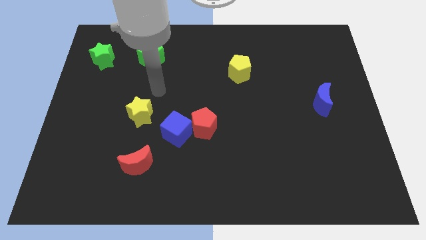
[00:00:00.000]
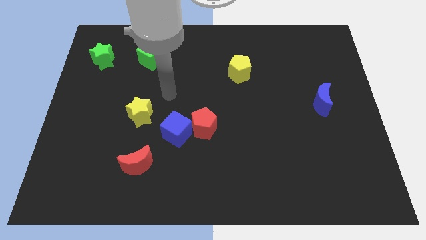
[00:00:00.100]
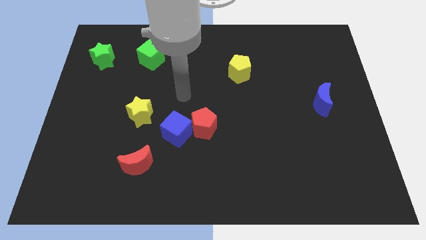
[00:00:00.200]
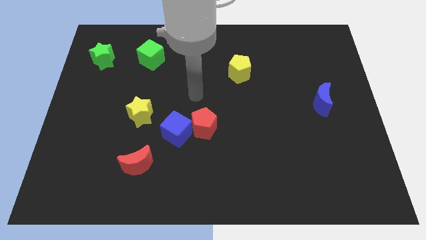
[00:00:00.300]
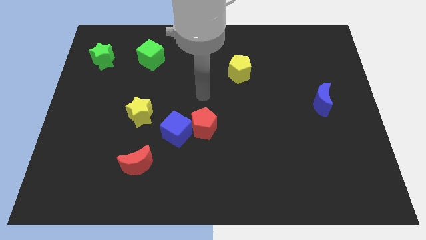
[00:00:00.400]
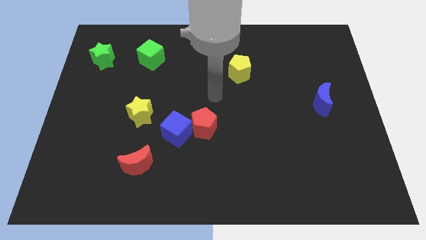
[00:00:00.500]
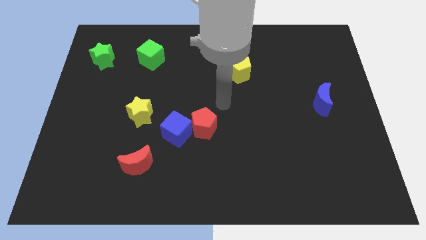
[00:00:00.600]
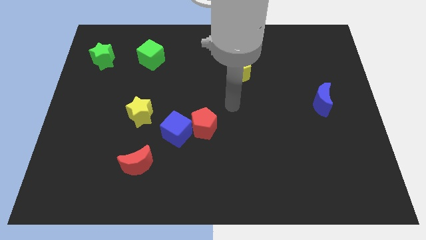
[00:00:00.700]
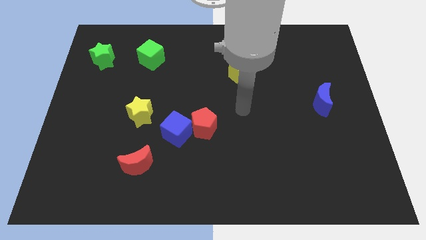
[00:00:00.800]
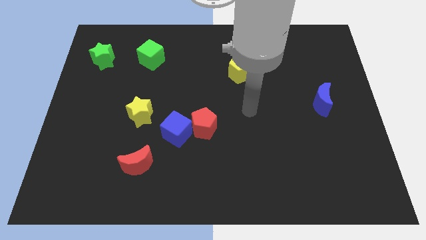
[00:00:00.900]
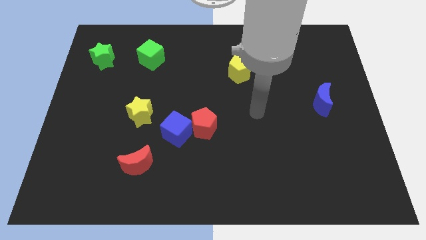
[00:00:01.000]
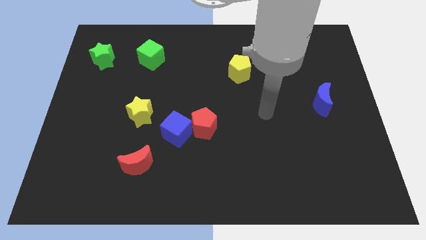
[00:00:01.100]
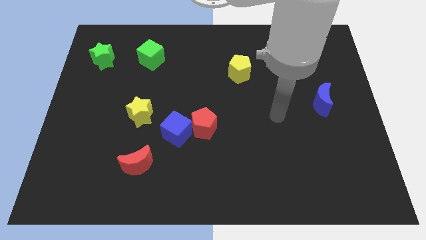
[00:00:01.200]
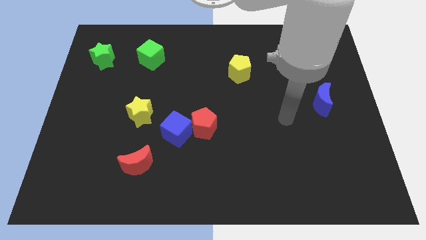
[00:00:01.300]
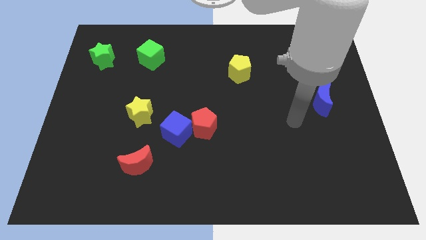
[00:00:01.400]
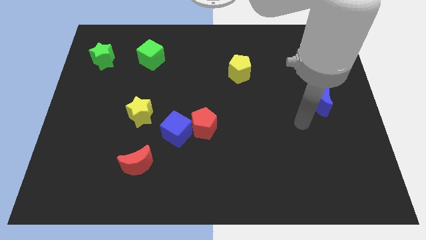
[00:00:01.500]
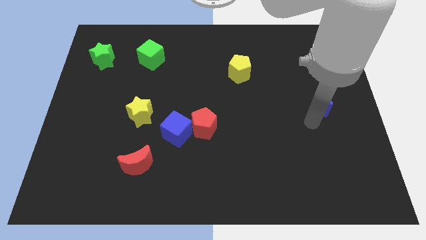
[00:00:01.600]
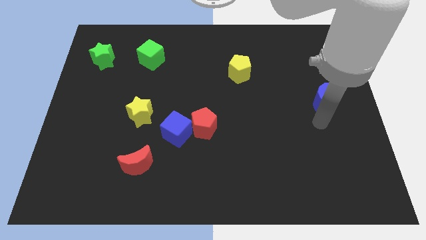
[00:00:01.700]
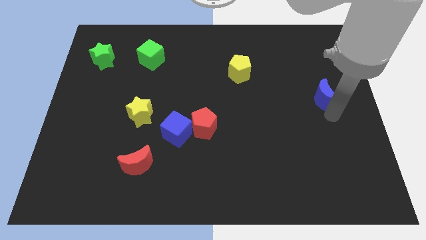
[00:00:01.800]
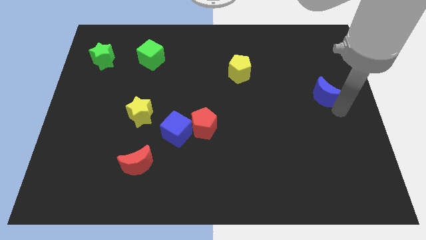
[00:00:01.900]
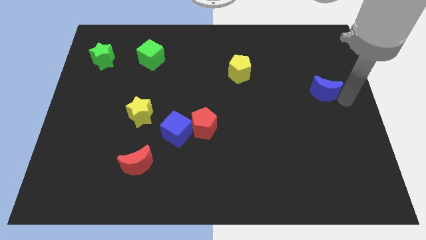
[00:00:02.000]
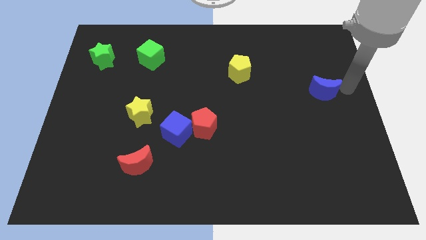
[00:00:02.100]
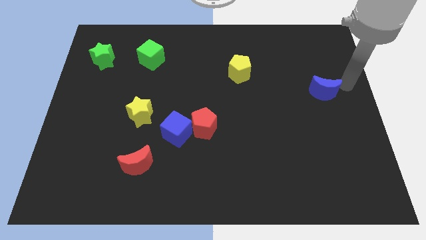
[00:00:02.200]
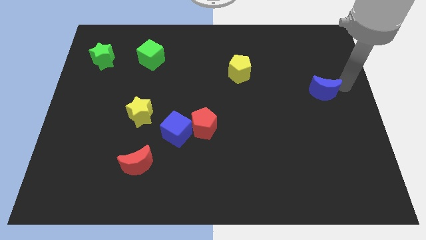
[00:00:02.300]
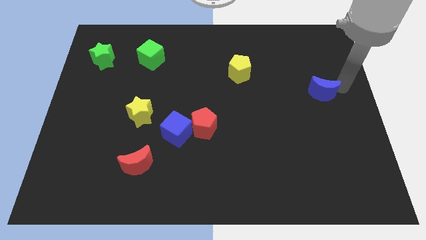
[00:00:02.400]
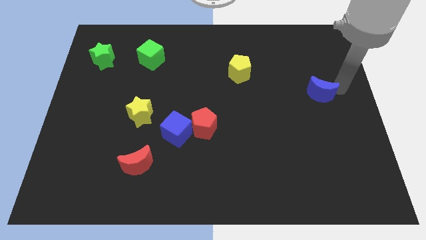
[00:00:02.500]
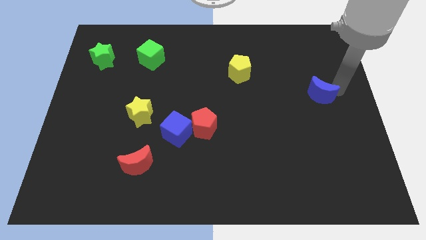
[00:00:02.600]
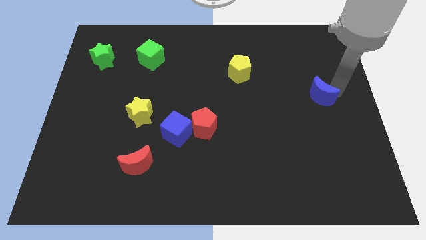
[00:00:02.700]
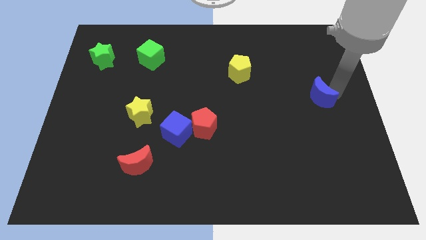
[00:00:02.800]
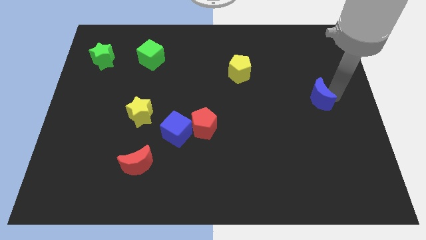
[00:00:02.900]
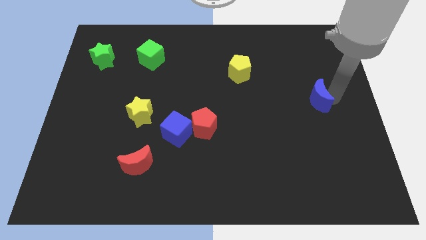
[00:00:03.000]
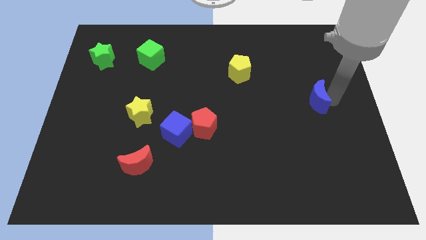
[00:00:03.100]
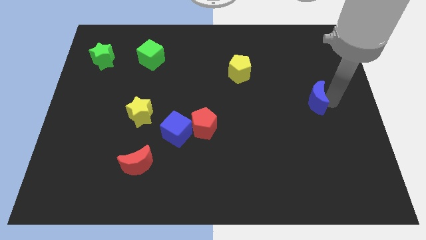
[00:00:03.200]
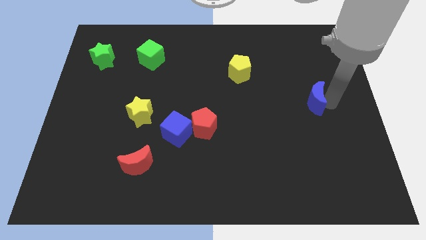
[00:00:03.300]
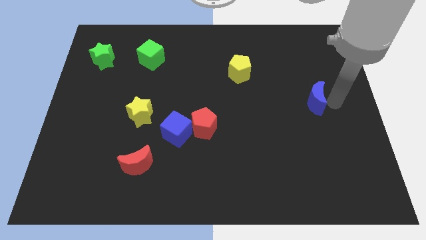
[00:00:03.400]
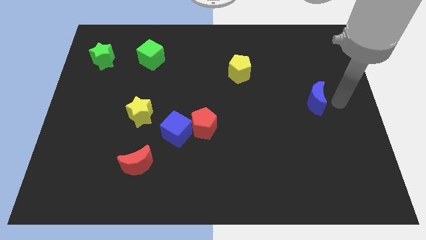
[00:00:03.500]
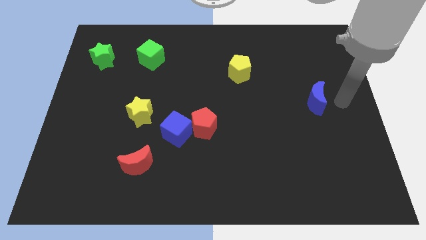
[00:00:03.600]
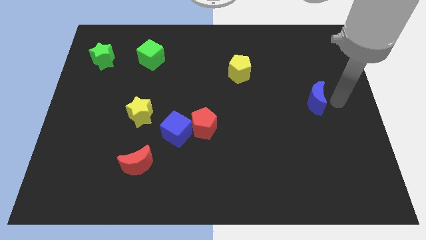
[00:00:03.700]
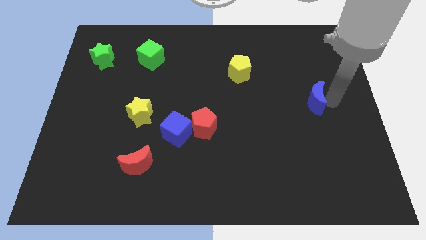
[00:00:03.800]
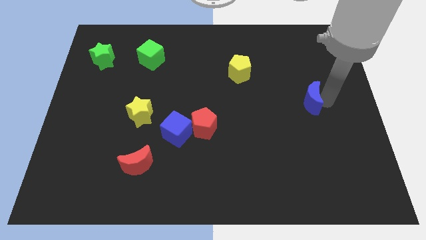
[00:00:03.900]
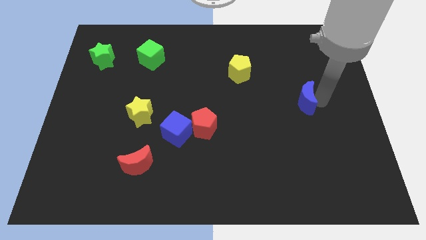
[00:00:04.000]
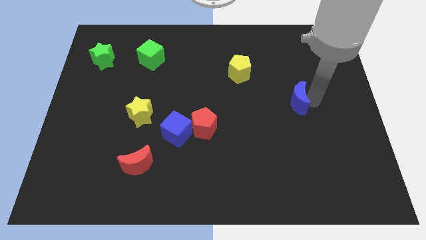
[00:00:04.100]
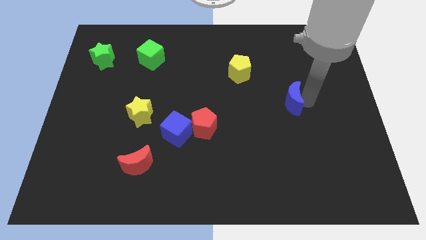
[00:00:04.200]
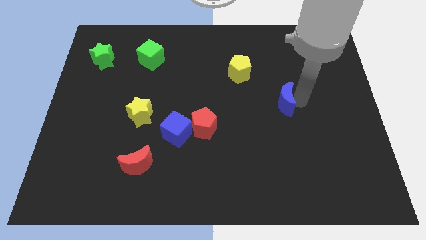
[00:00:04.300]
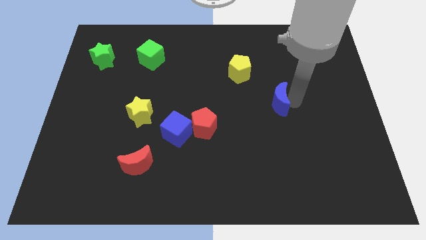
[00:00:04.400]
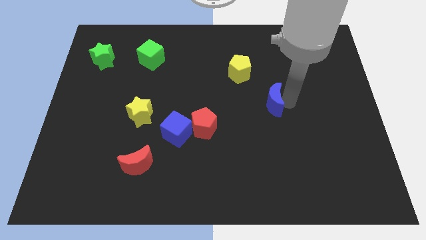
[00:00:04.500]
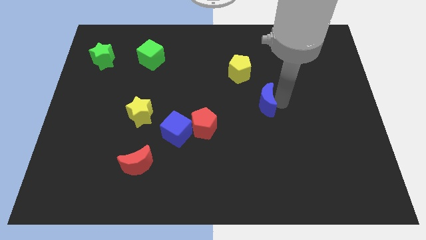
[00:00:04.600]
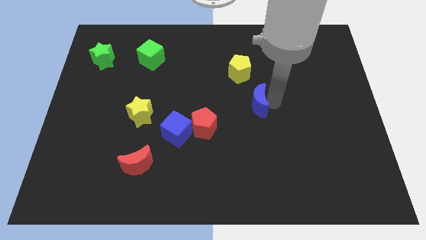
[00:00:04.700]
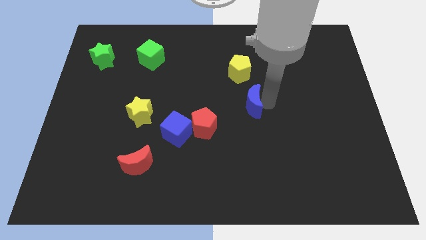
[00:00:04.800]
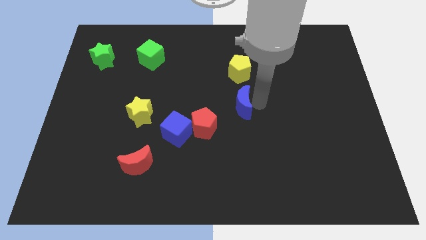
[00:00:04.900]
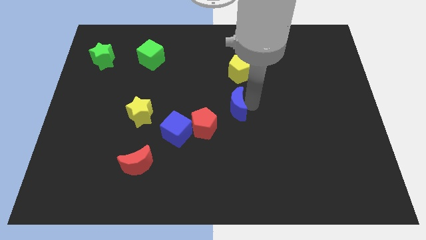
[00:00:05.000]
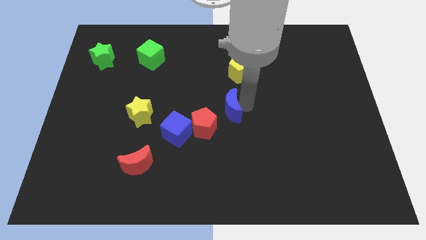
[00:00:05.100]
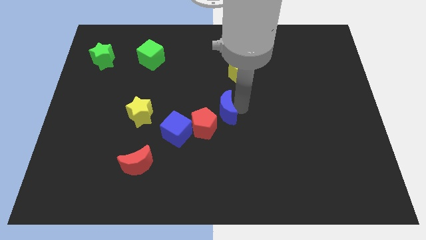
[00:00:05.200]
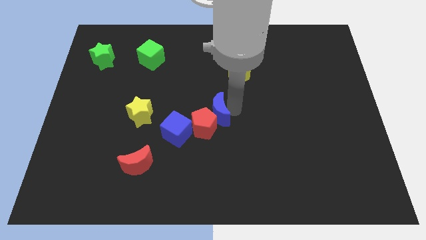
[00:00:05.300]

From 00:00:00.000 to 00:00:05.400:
put the blue moon to the top right side of the blue cube
